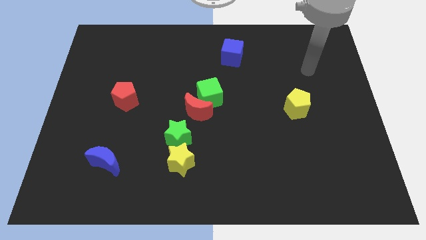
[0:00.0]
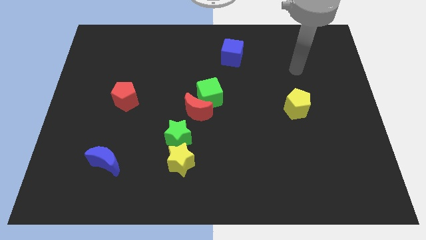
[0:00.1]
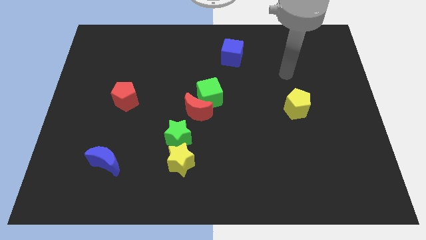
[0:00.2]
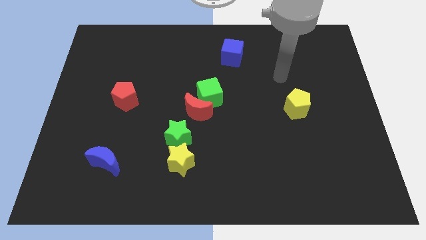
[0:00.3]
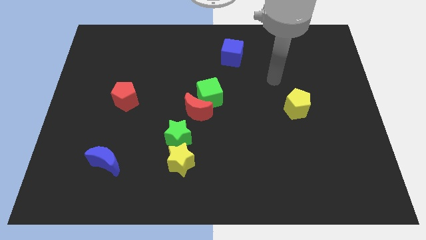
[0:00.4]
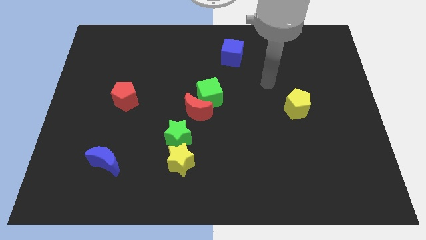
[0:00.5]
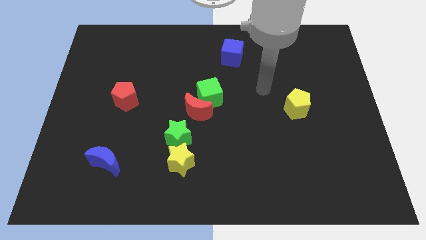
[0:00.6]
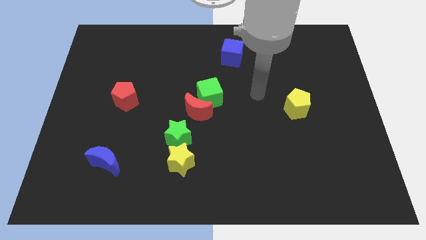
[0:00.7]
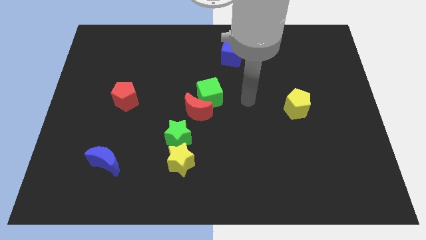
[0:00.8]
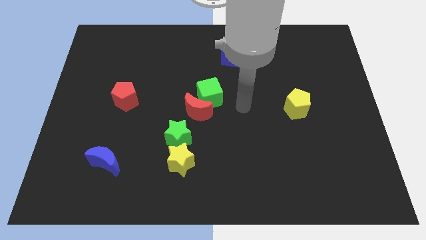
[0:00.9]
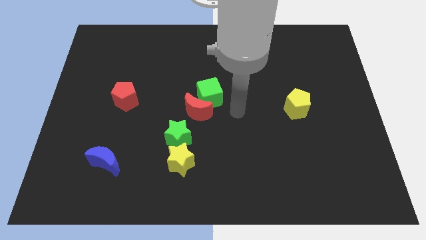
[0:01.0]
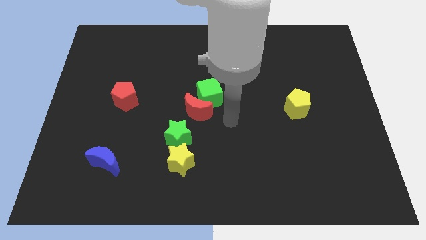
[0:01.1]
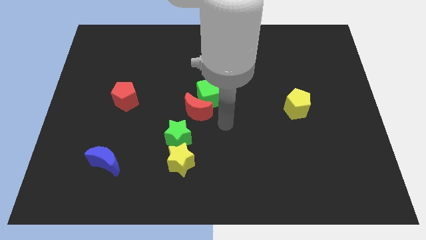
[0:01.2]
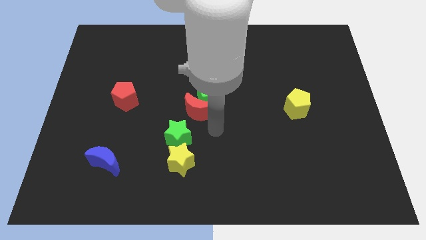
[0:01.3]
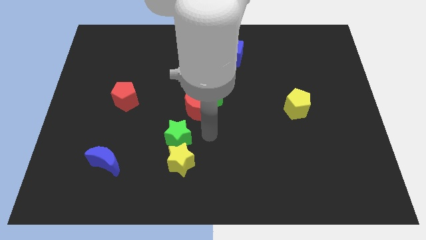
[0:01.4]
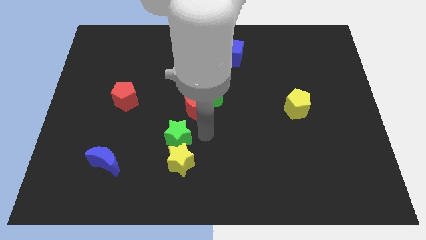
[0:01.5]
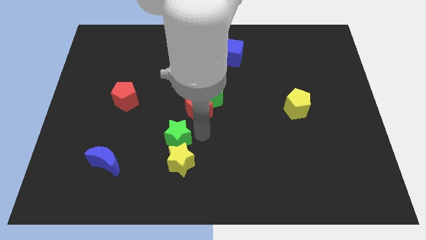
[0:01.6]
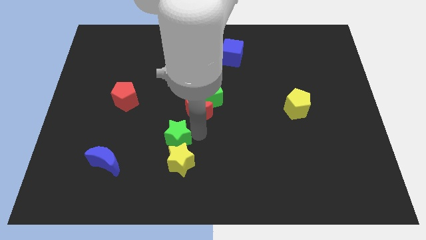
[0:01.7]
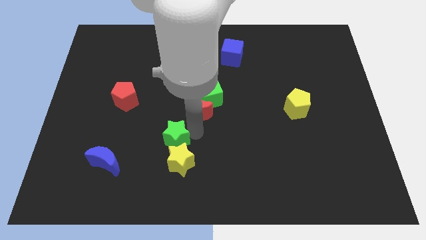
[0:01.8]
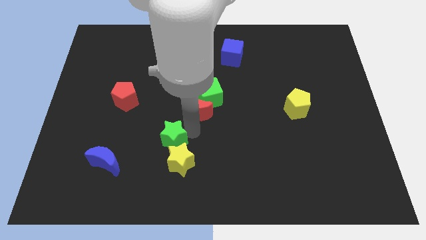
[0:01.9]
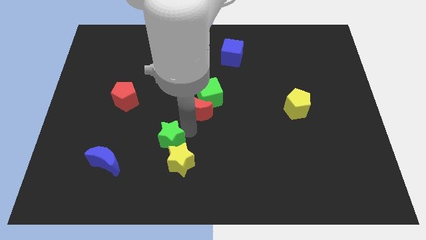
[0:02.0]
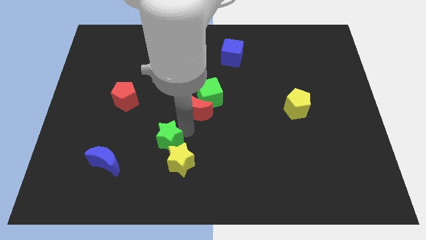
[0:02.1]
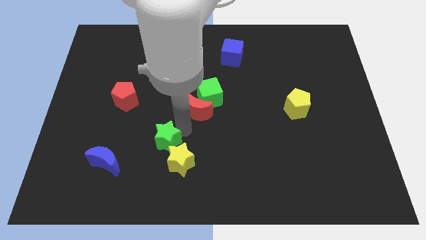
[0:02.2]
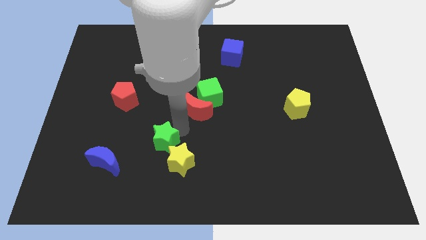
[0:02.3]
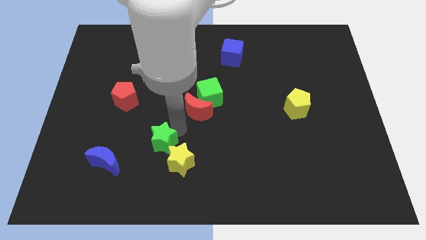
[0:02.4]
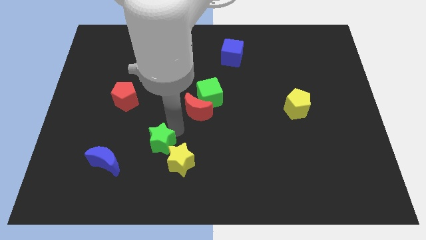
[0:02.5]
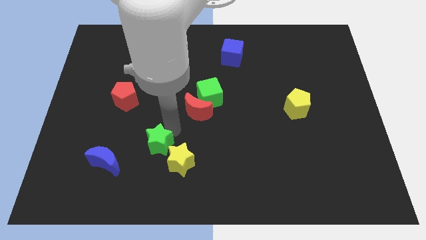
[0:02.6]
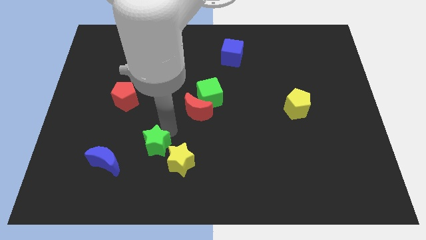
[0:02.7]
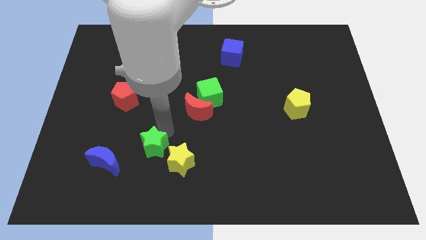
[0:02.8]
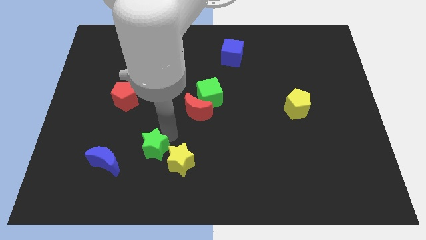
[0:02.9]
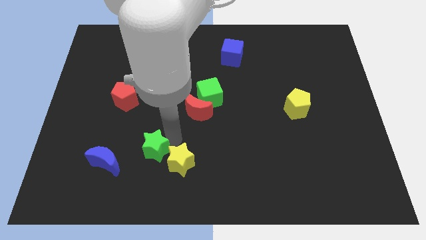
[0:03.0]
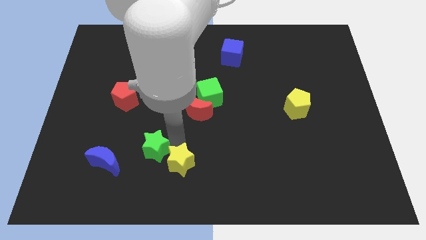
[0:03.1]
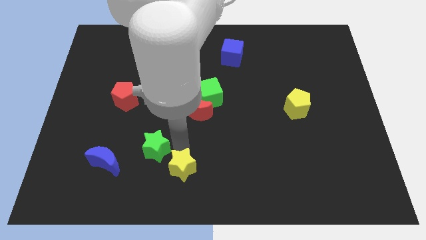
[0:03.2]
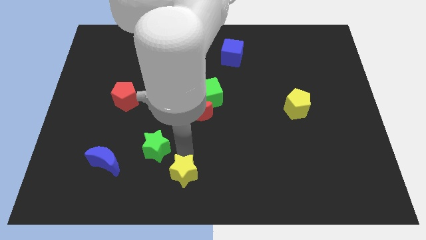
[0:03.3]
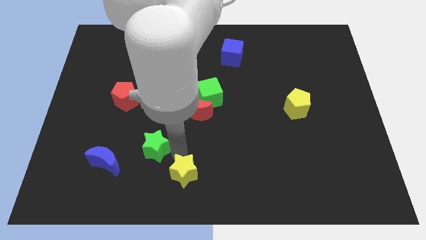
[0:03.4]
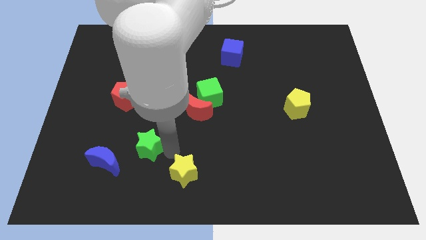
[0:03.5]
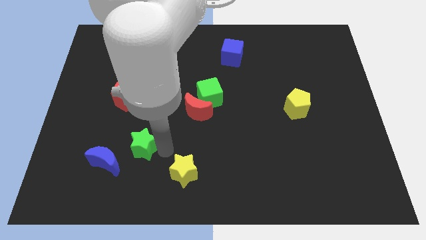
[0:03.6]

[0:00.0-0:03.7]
push the green star a little left

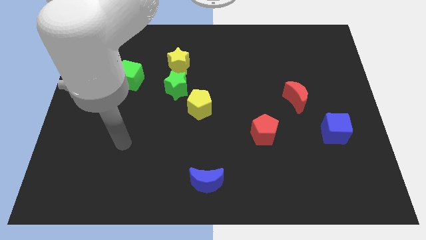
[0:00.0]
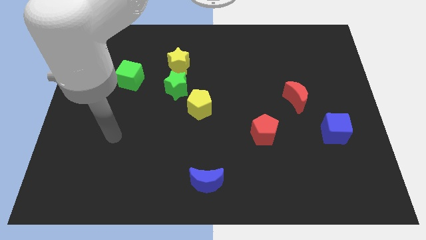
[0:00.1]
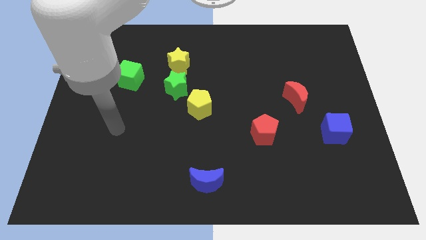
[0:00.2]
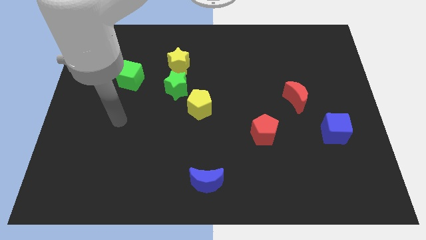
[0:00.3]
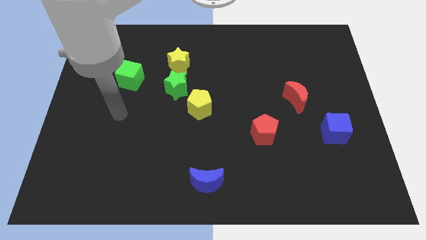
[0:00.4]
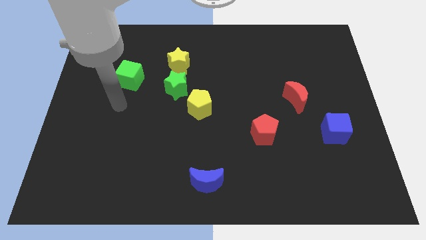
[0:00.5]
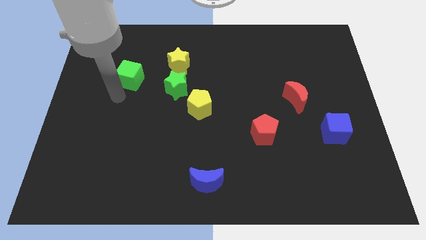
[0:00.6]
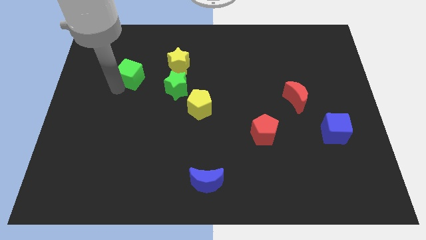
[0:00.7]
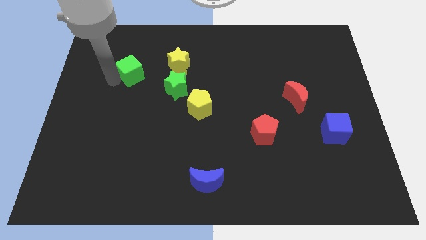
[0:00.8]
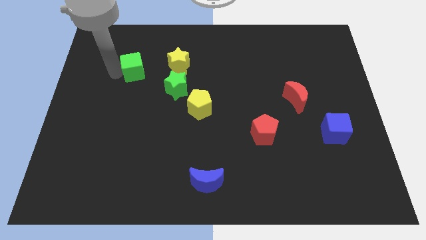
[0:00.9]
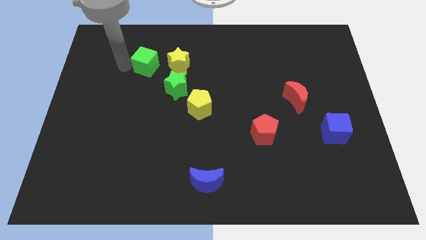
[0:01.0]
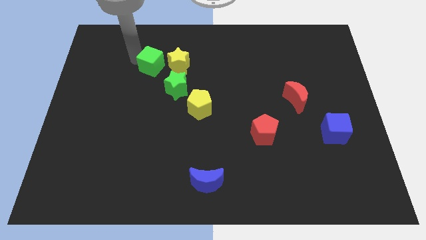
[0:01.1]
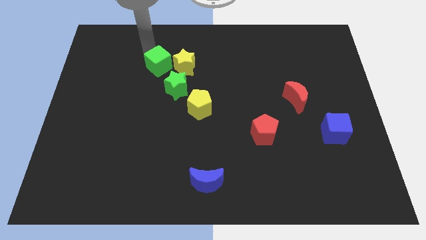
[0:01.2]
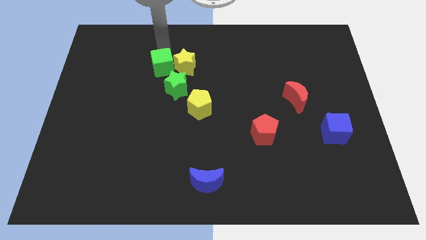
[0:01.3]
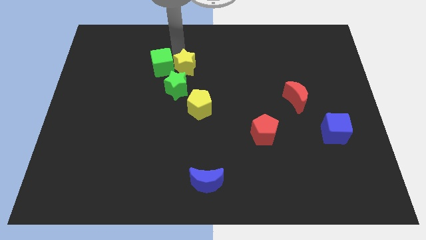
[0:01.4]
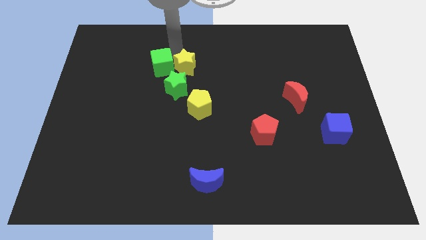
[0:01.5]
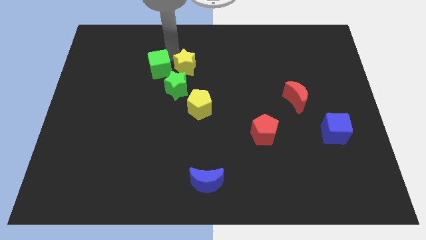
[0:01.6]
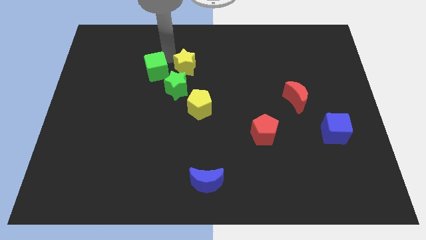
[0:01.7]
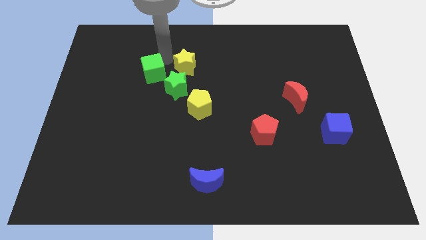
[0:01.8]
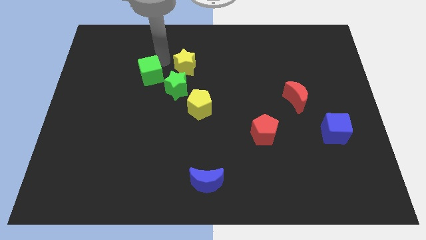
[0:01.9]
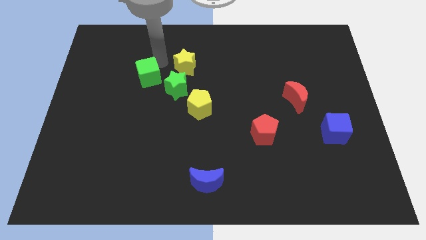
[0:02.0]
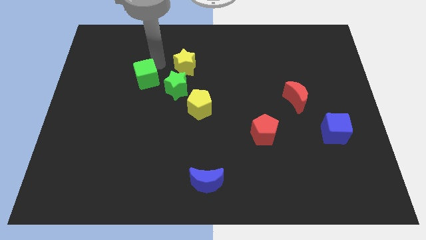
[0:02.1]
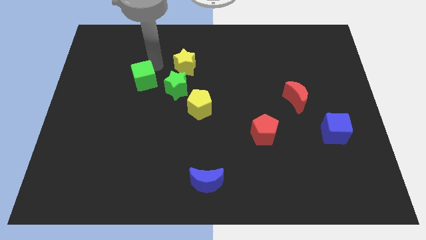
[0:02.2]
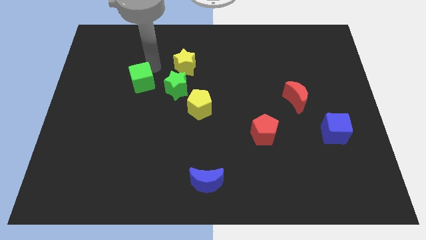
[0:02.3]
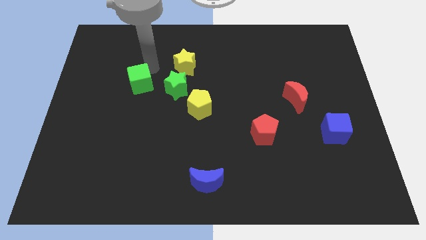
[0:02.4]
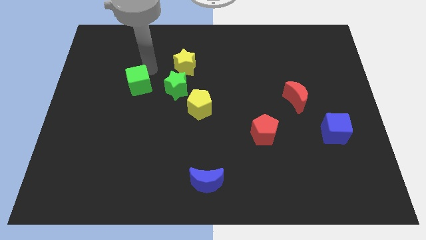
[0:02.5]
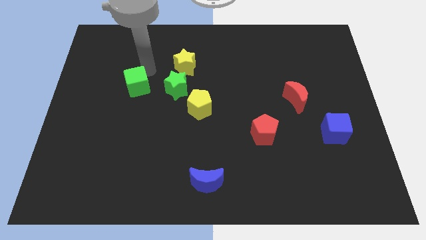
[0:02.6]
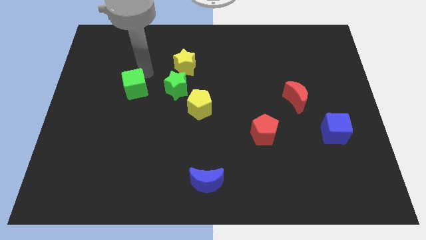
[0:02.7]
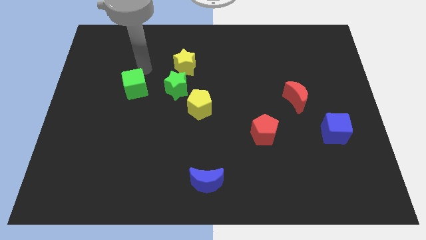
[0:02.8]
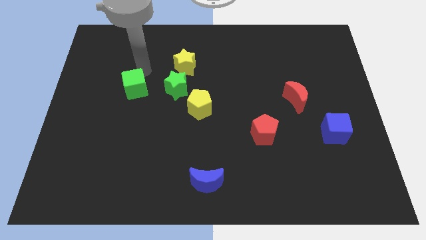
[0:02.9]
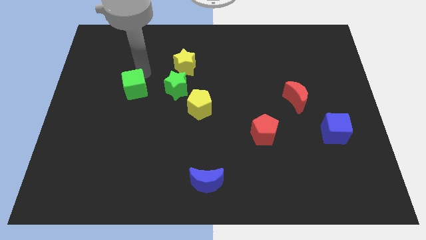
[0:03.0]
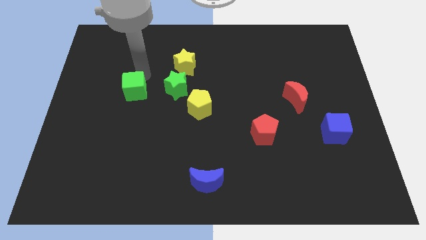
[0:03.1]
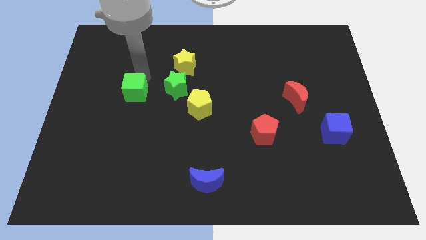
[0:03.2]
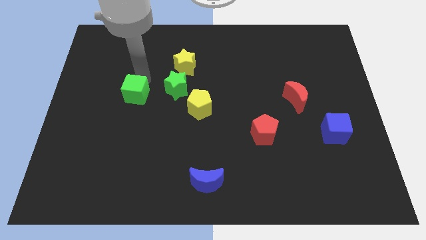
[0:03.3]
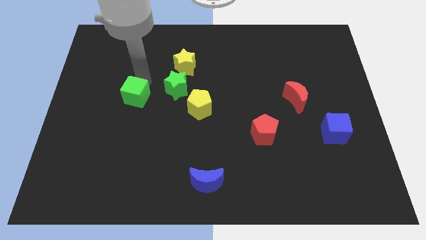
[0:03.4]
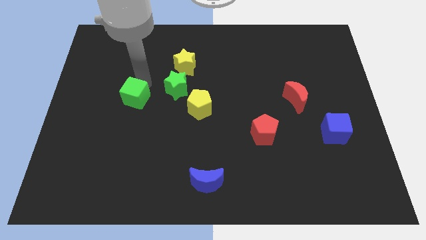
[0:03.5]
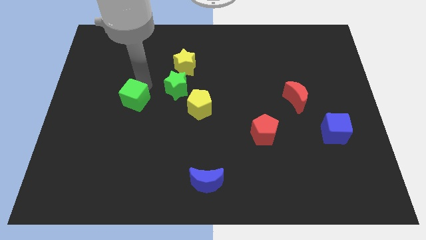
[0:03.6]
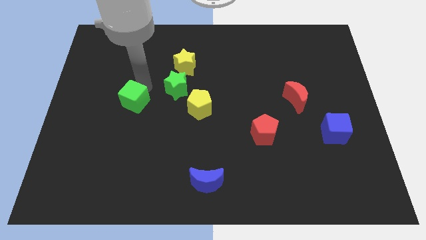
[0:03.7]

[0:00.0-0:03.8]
slightly move the green cube downwards

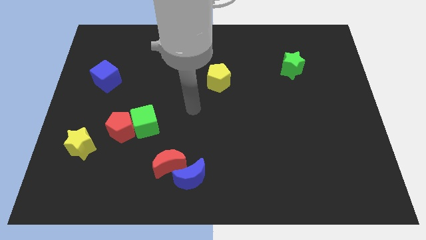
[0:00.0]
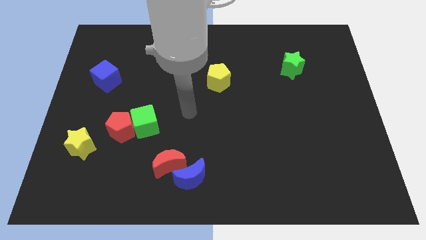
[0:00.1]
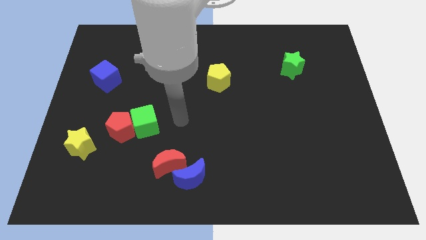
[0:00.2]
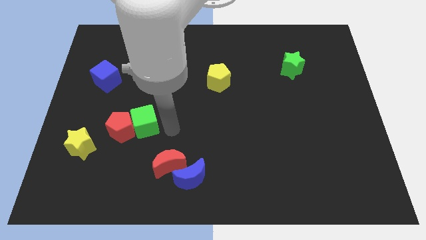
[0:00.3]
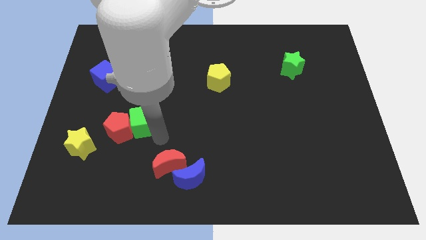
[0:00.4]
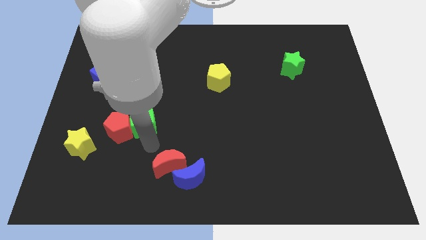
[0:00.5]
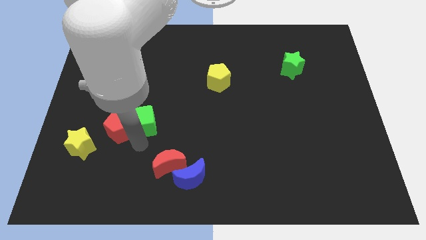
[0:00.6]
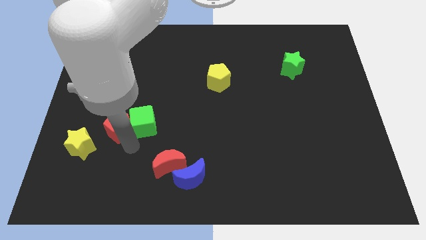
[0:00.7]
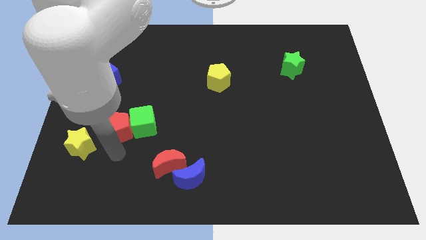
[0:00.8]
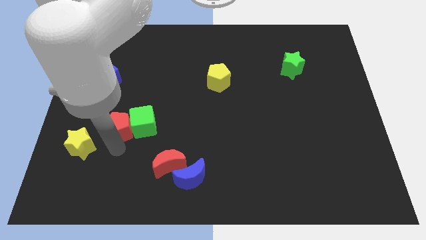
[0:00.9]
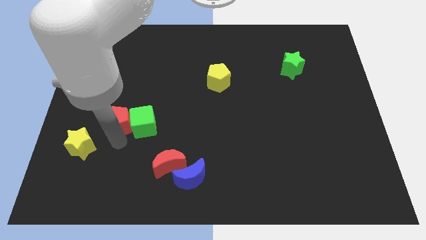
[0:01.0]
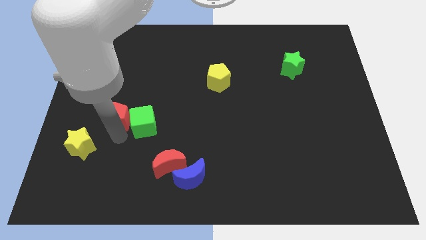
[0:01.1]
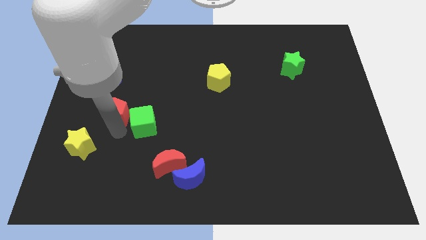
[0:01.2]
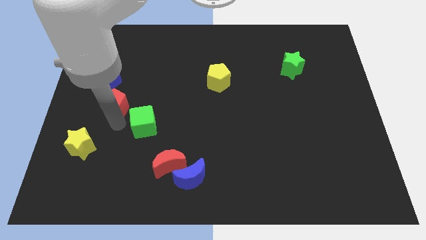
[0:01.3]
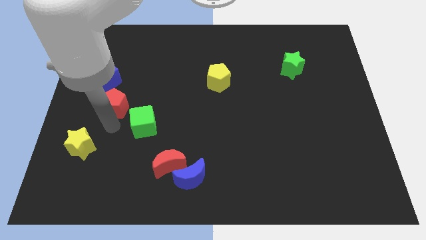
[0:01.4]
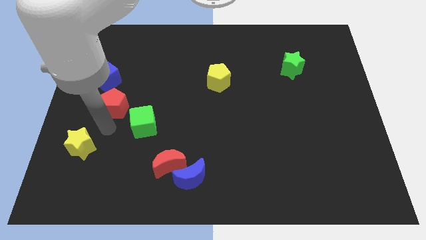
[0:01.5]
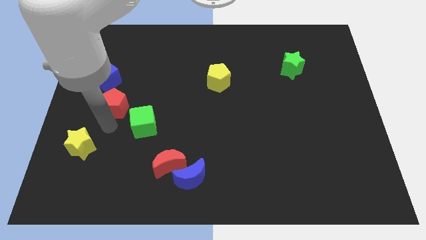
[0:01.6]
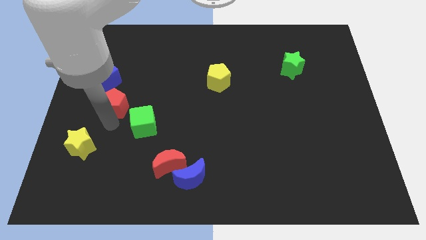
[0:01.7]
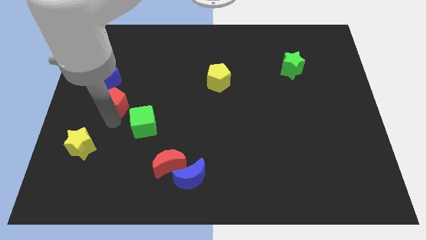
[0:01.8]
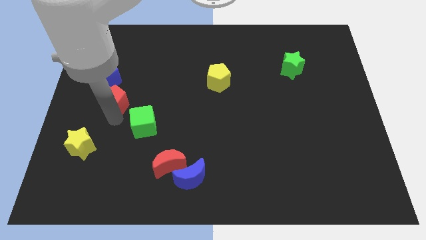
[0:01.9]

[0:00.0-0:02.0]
push the red pentagon somewhat upwards
